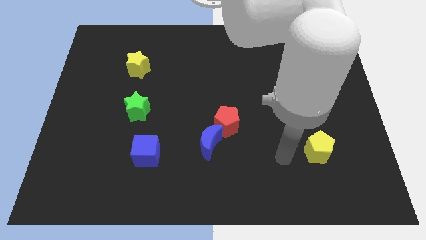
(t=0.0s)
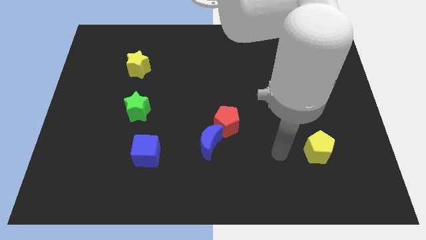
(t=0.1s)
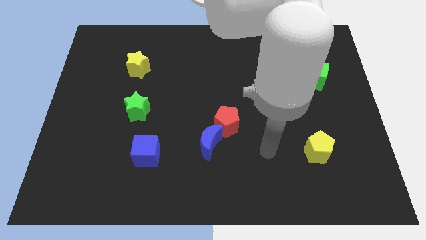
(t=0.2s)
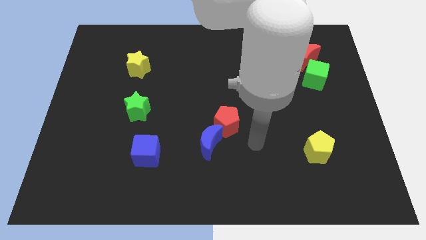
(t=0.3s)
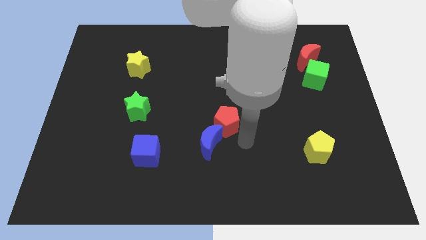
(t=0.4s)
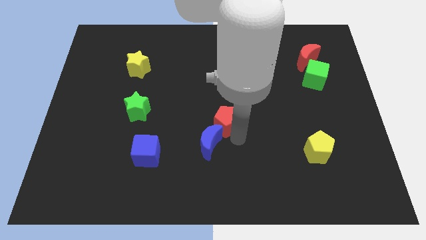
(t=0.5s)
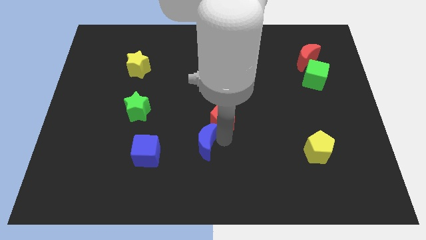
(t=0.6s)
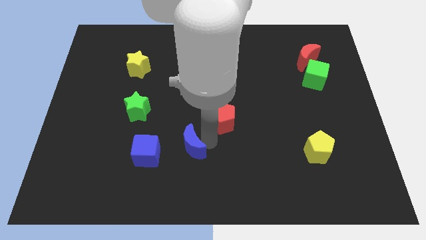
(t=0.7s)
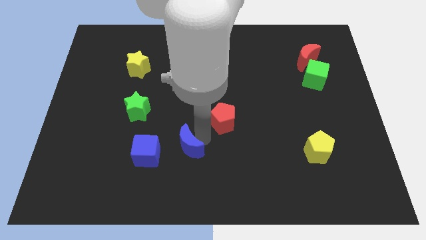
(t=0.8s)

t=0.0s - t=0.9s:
separate the red pentagon from the blue moon

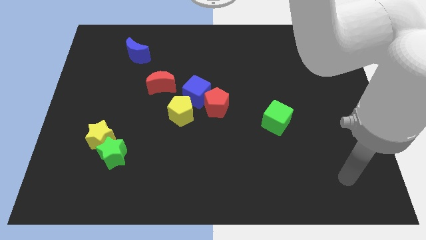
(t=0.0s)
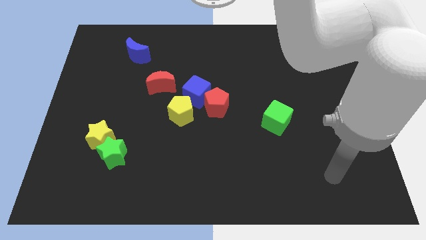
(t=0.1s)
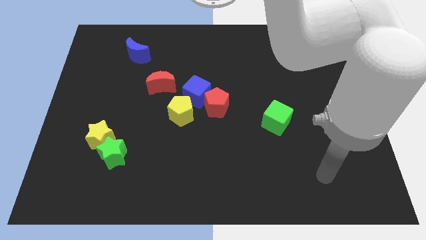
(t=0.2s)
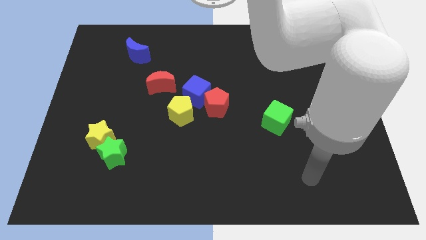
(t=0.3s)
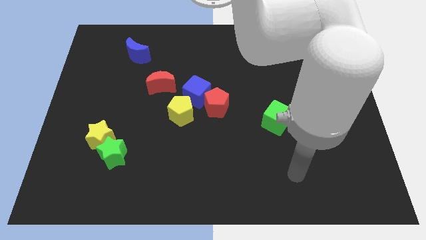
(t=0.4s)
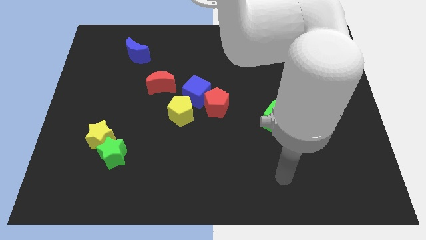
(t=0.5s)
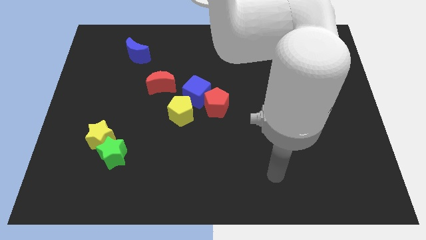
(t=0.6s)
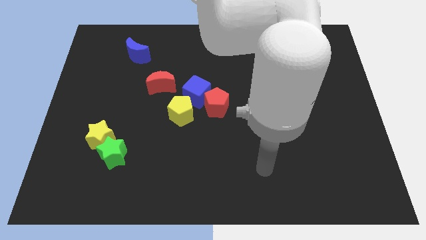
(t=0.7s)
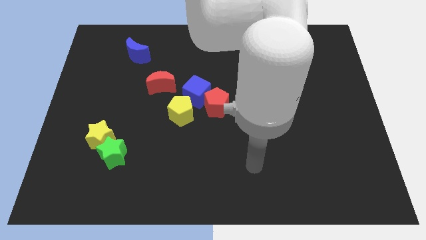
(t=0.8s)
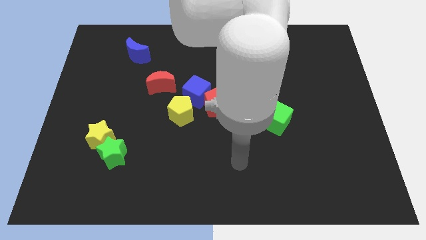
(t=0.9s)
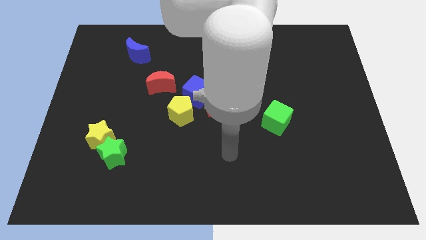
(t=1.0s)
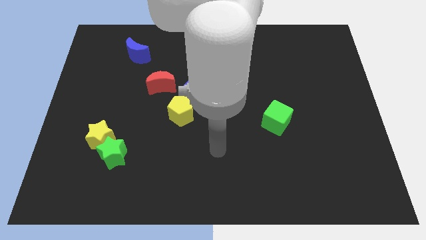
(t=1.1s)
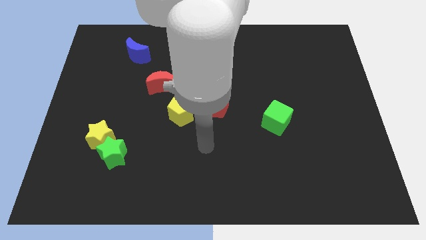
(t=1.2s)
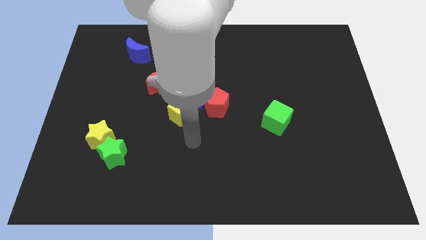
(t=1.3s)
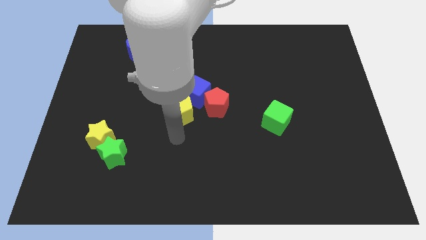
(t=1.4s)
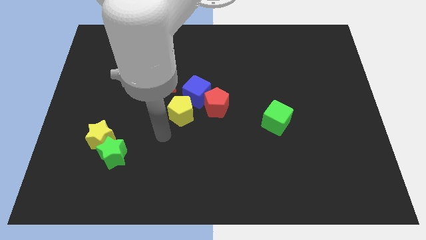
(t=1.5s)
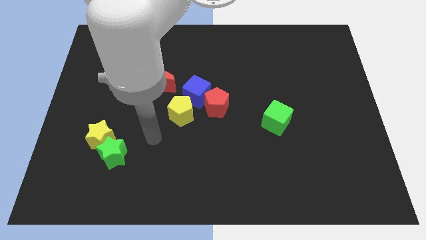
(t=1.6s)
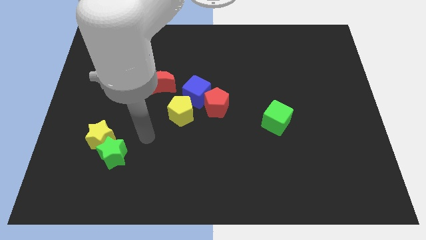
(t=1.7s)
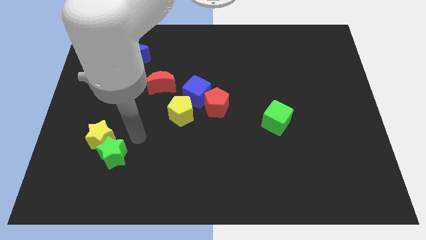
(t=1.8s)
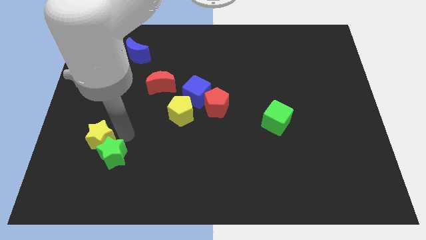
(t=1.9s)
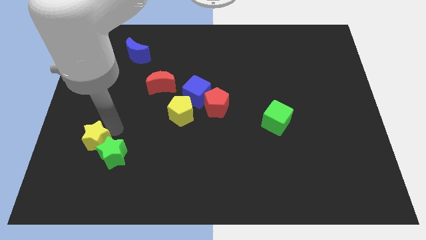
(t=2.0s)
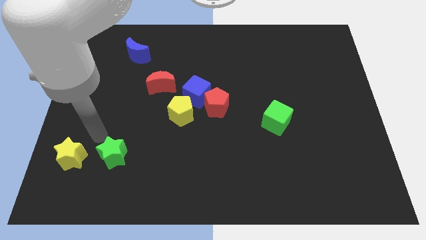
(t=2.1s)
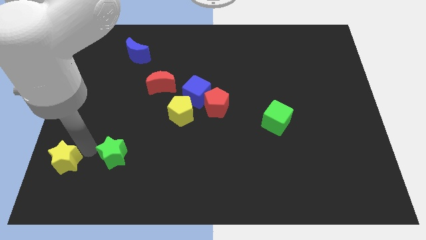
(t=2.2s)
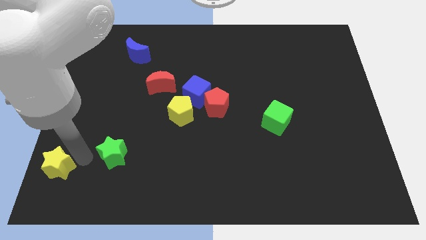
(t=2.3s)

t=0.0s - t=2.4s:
separate the green star from the yellow star

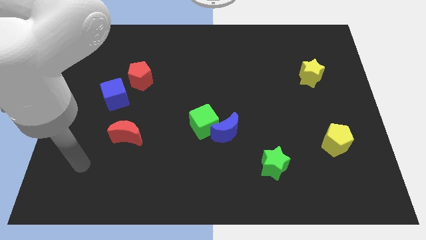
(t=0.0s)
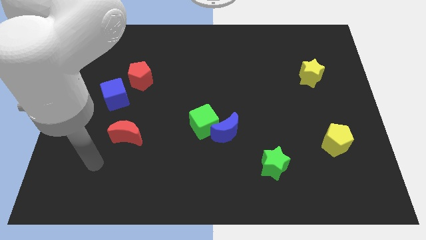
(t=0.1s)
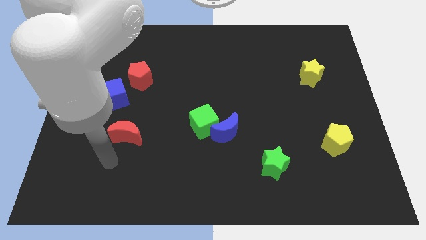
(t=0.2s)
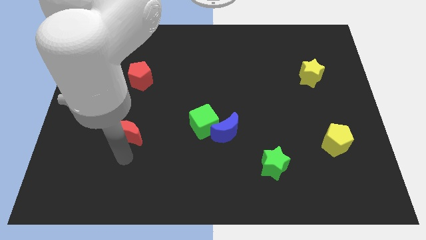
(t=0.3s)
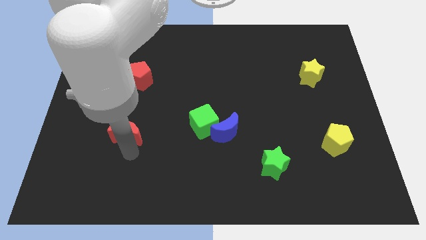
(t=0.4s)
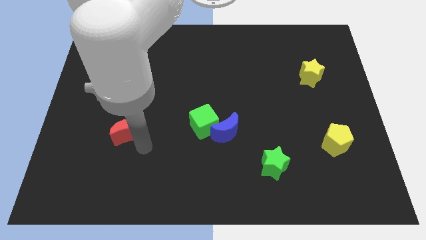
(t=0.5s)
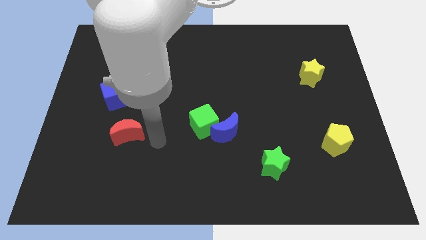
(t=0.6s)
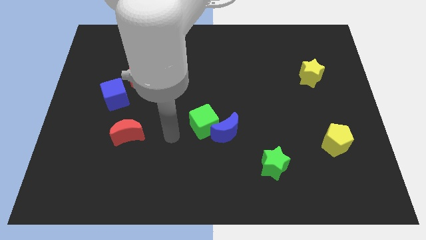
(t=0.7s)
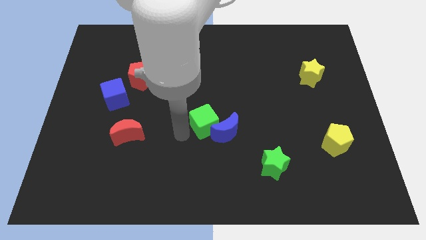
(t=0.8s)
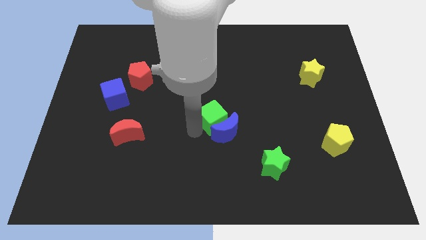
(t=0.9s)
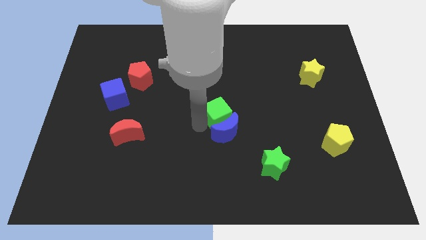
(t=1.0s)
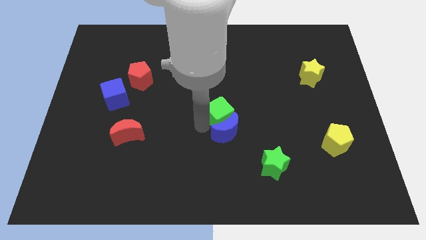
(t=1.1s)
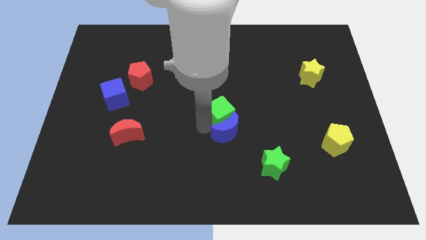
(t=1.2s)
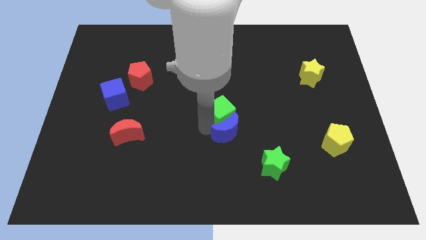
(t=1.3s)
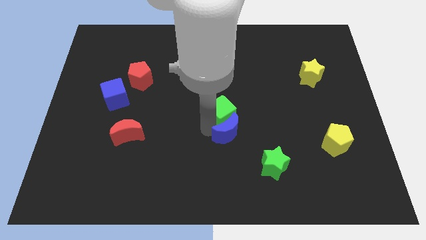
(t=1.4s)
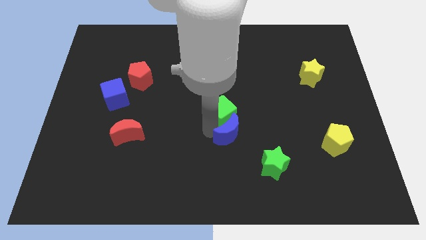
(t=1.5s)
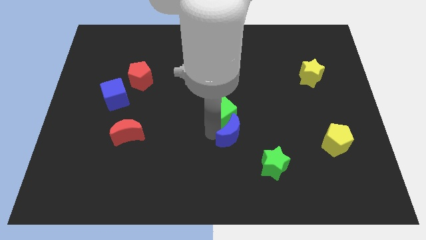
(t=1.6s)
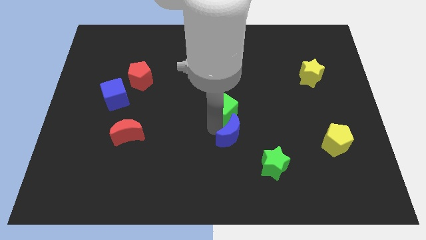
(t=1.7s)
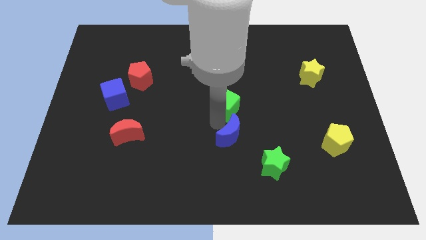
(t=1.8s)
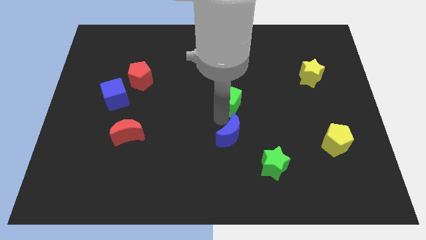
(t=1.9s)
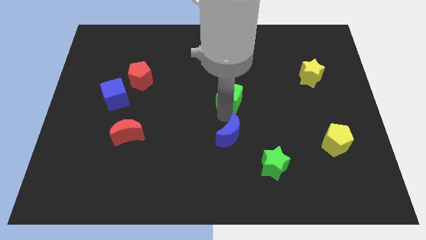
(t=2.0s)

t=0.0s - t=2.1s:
separate the blue moon from the green cube

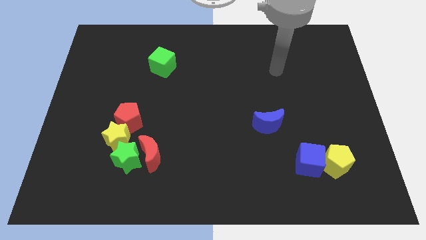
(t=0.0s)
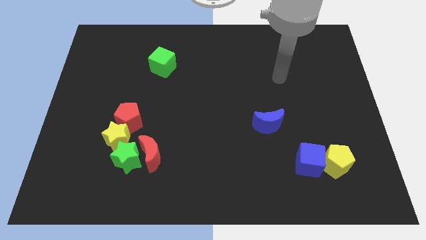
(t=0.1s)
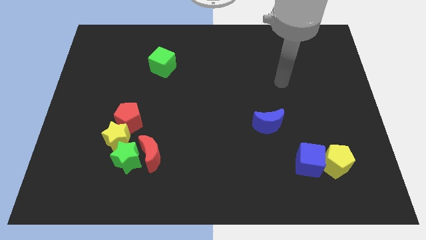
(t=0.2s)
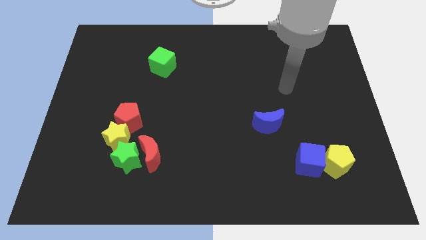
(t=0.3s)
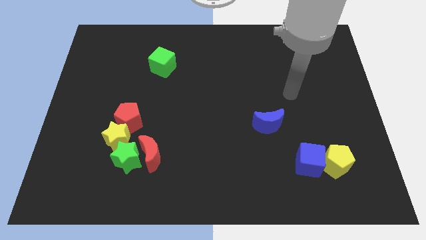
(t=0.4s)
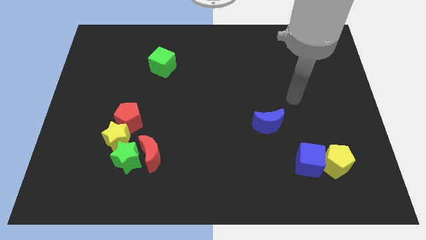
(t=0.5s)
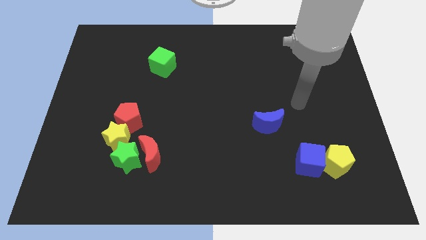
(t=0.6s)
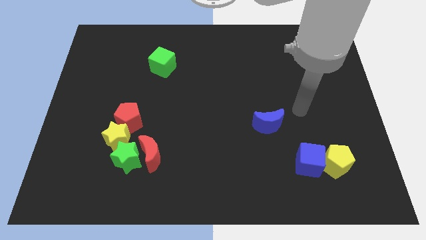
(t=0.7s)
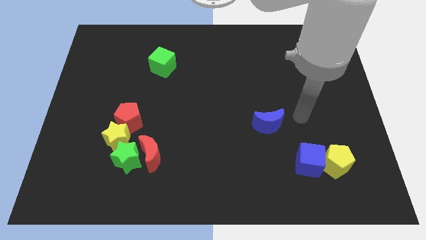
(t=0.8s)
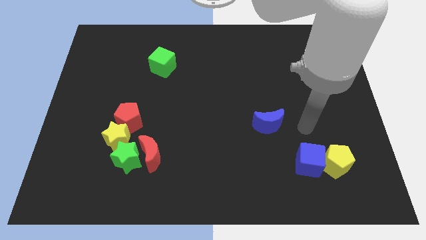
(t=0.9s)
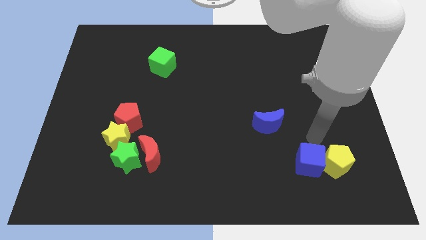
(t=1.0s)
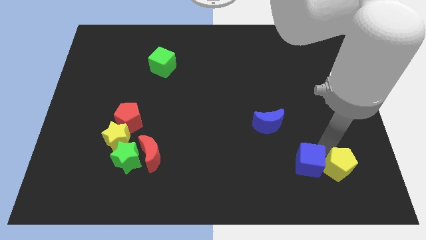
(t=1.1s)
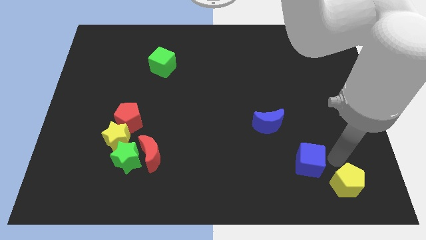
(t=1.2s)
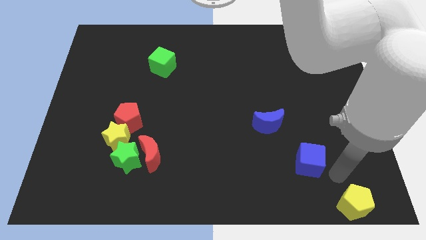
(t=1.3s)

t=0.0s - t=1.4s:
pull the blue cube apart from the yellow pentagon

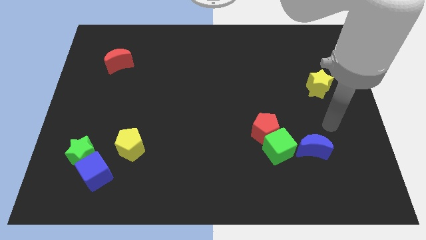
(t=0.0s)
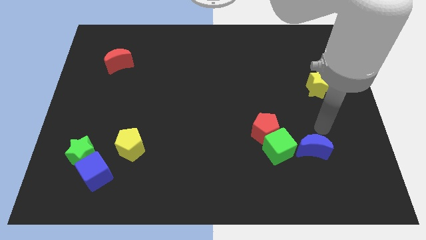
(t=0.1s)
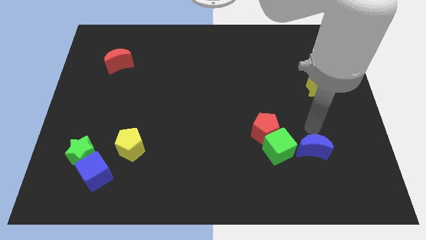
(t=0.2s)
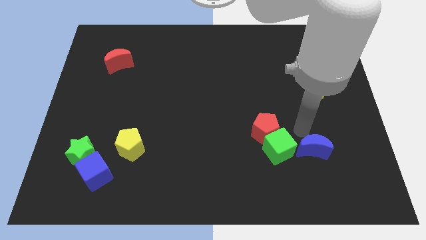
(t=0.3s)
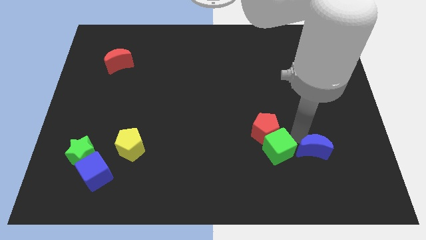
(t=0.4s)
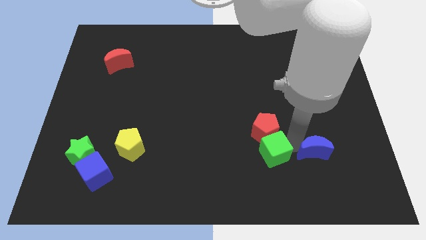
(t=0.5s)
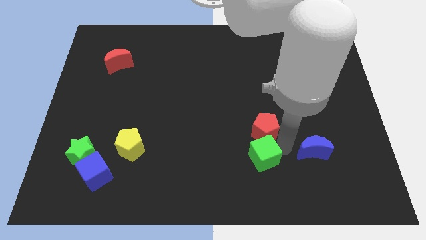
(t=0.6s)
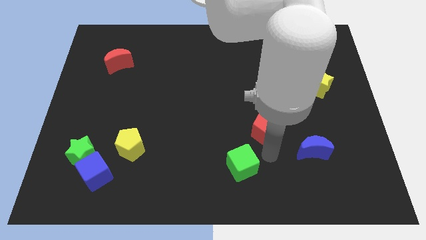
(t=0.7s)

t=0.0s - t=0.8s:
separate the red pentagon from the green cube

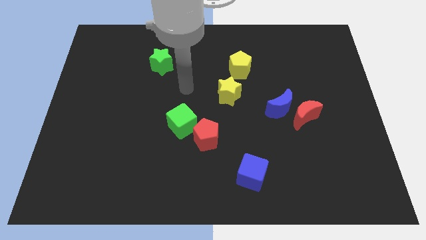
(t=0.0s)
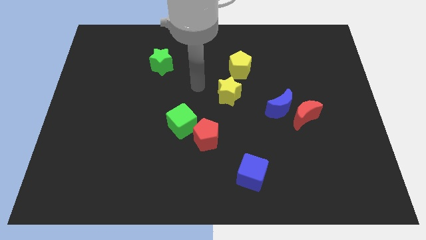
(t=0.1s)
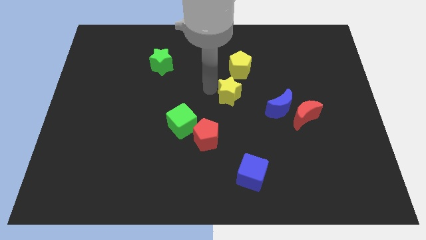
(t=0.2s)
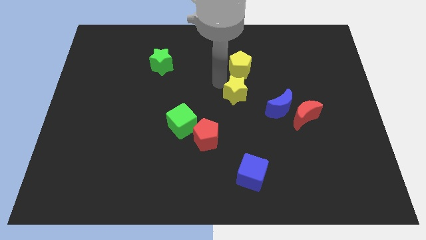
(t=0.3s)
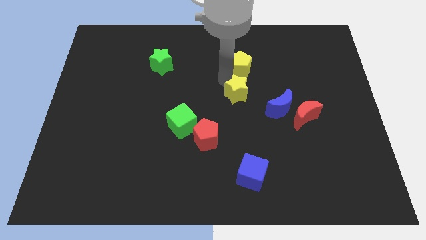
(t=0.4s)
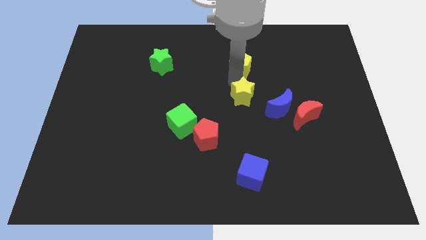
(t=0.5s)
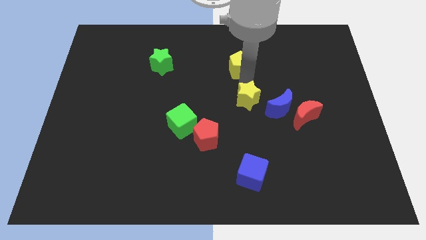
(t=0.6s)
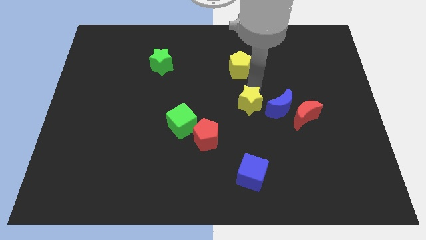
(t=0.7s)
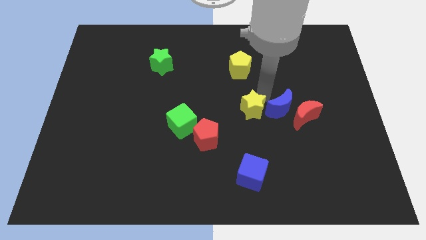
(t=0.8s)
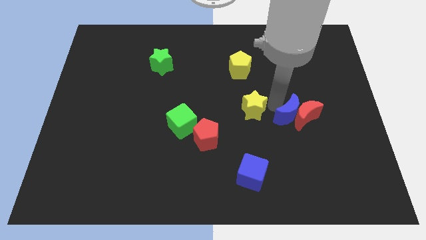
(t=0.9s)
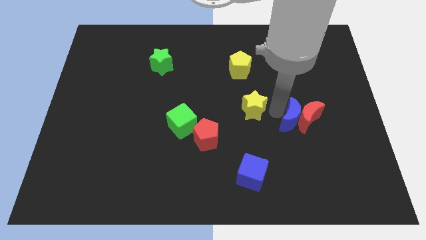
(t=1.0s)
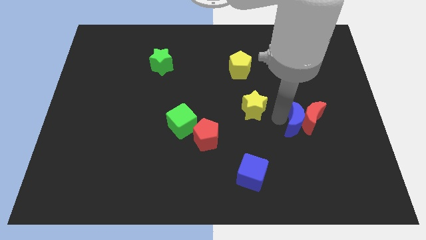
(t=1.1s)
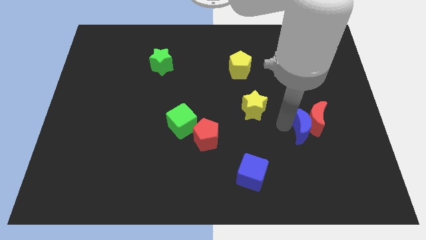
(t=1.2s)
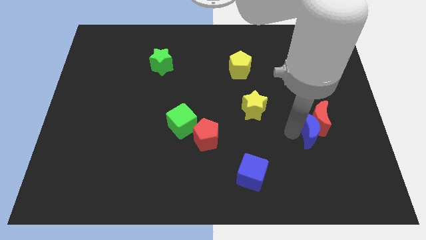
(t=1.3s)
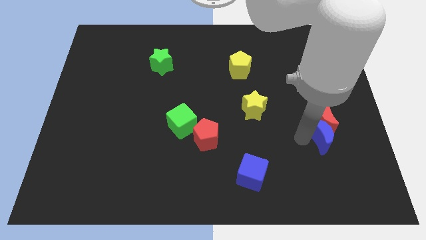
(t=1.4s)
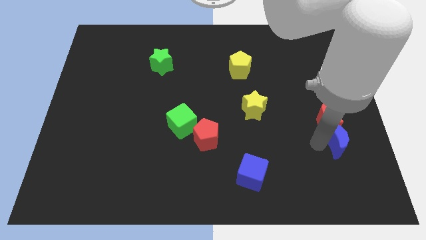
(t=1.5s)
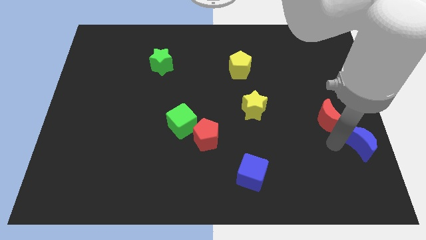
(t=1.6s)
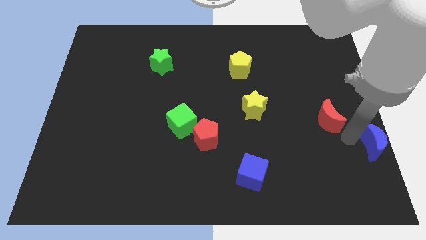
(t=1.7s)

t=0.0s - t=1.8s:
move the red moon away from the blue moon
